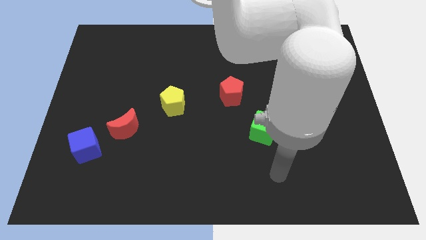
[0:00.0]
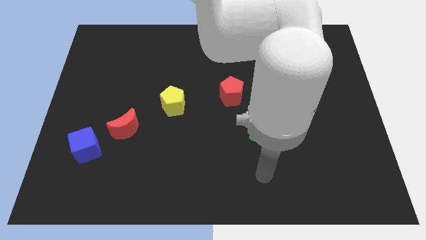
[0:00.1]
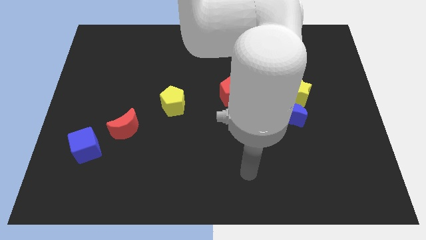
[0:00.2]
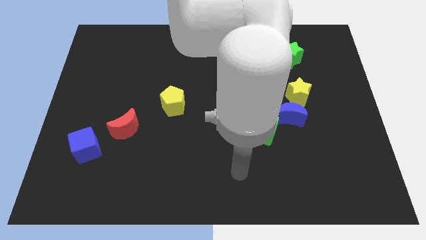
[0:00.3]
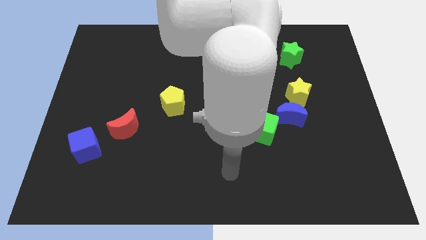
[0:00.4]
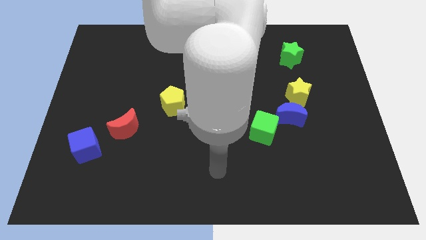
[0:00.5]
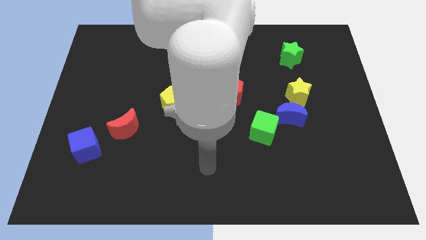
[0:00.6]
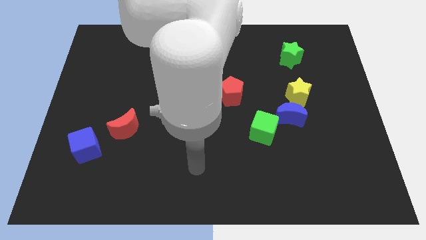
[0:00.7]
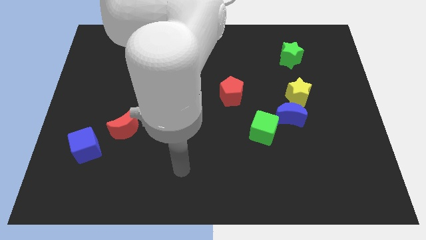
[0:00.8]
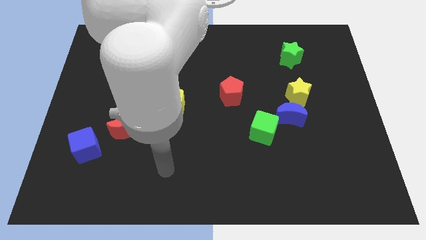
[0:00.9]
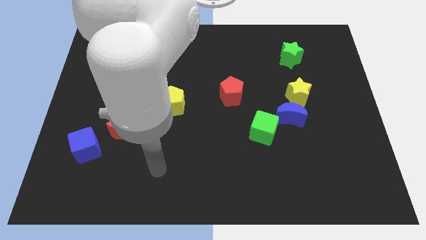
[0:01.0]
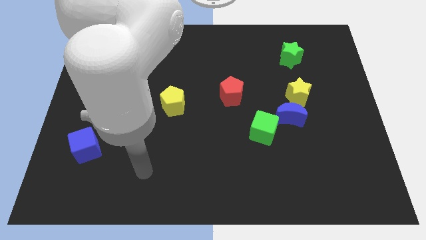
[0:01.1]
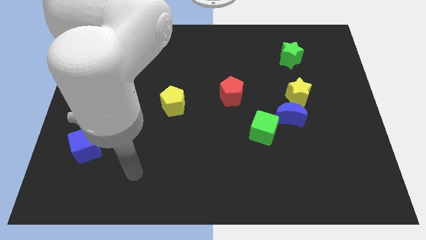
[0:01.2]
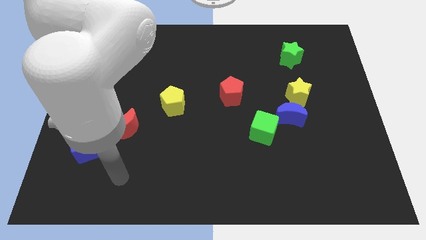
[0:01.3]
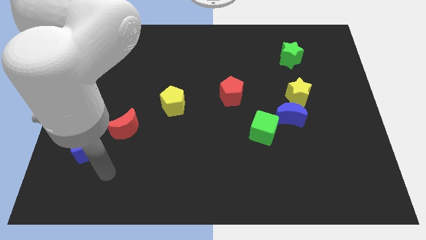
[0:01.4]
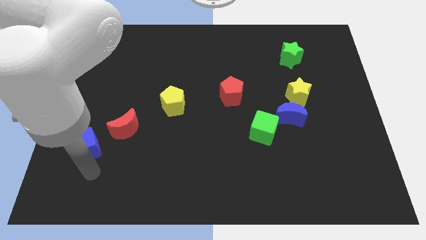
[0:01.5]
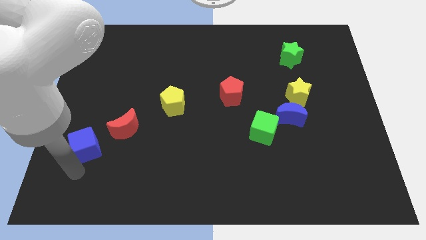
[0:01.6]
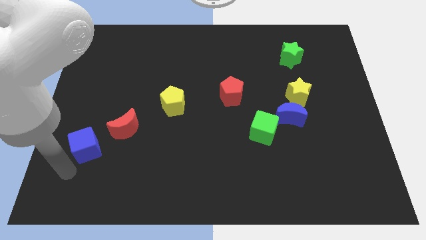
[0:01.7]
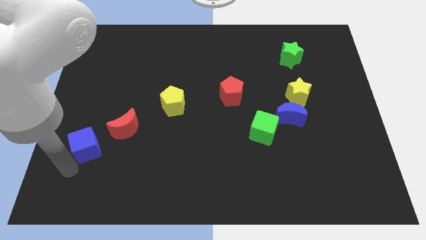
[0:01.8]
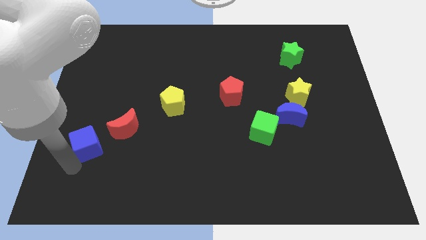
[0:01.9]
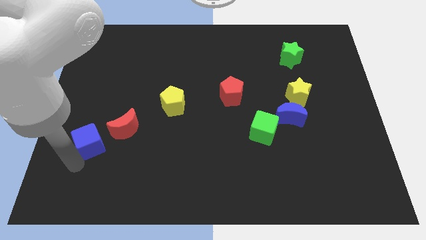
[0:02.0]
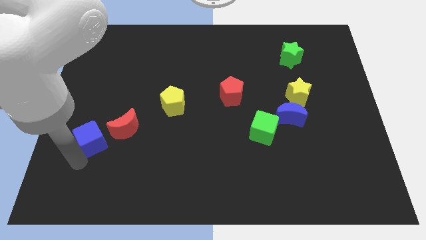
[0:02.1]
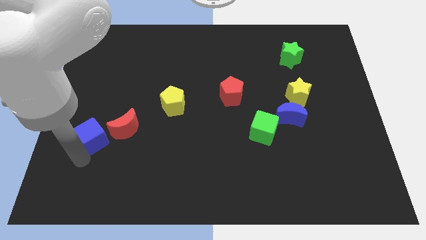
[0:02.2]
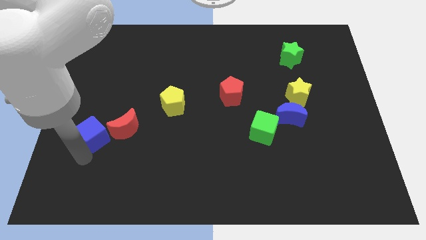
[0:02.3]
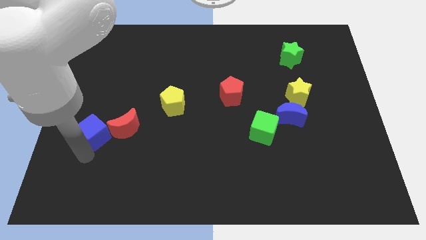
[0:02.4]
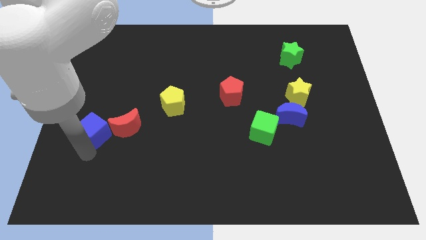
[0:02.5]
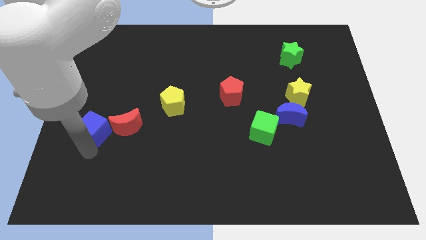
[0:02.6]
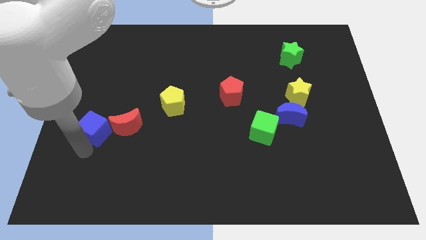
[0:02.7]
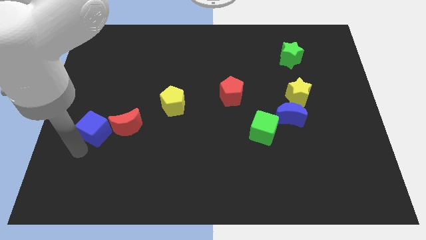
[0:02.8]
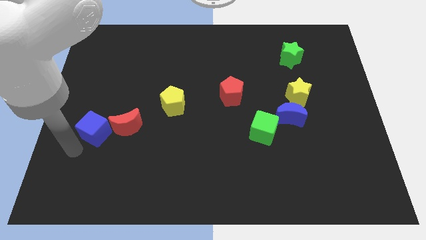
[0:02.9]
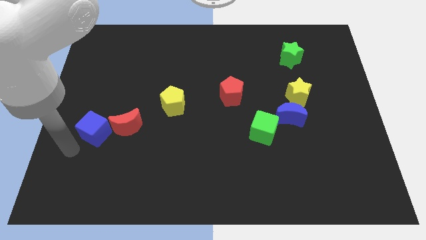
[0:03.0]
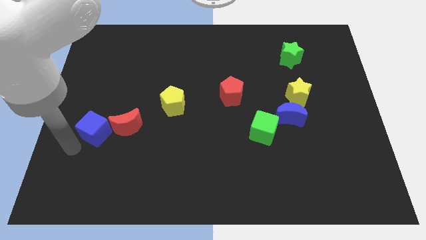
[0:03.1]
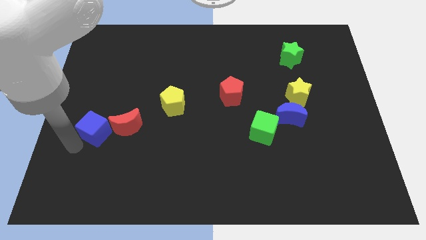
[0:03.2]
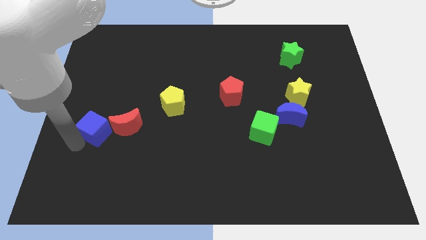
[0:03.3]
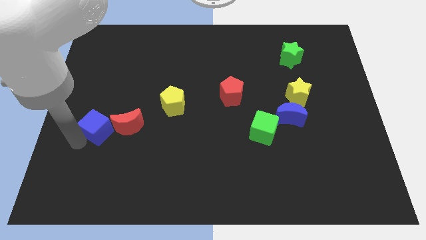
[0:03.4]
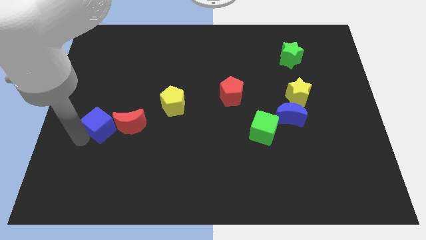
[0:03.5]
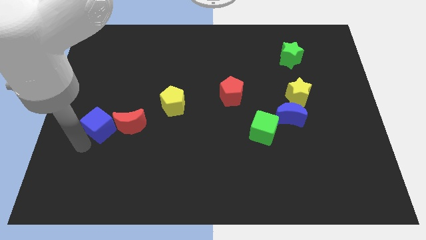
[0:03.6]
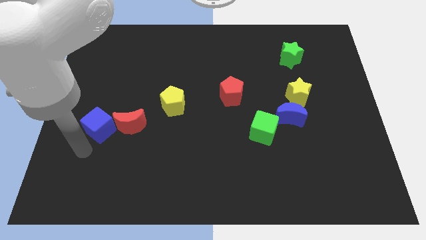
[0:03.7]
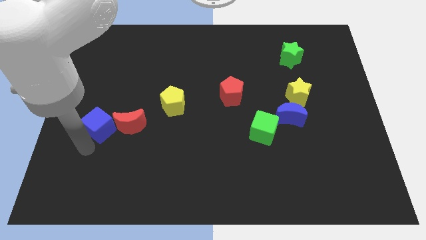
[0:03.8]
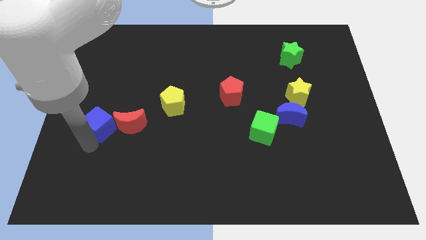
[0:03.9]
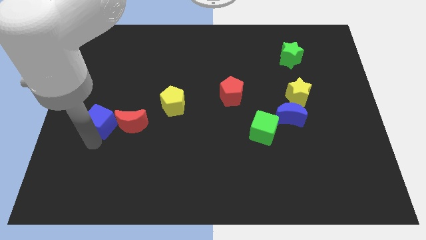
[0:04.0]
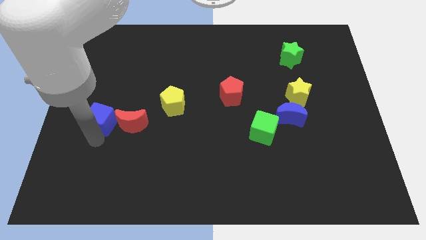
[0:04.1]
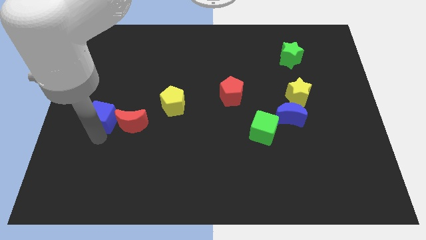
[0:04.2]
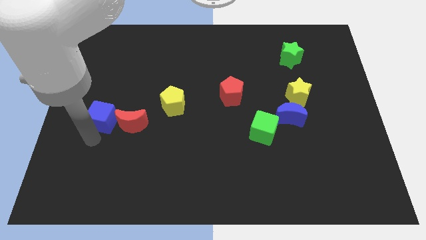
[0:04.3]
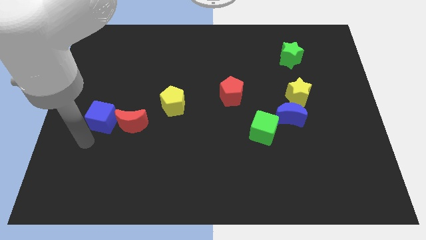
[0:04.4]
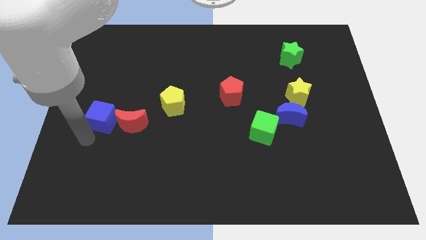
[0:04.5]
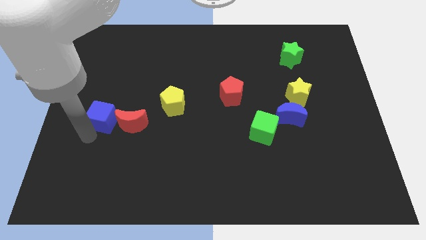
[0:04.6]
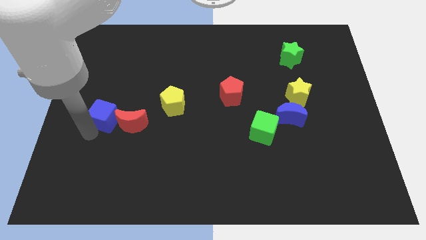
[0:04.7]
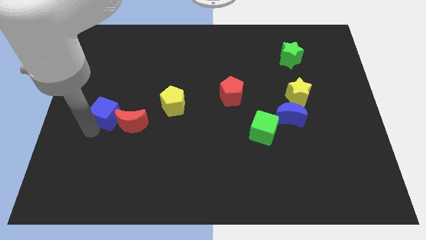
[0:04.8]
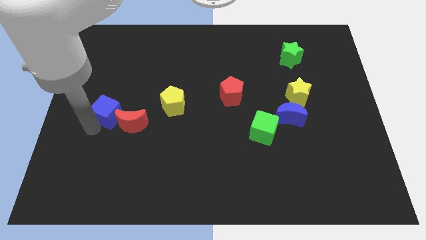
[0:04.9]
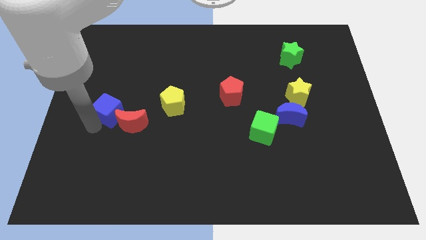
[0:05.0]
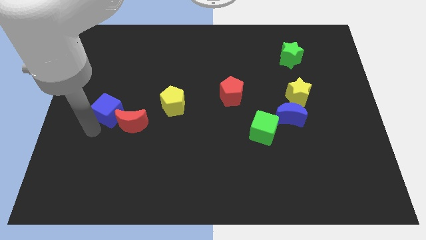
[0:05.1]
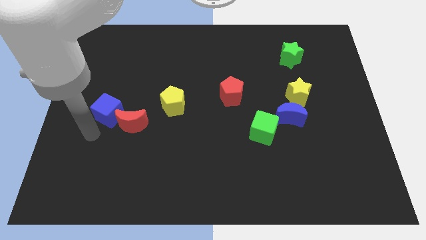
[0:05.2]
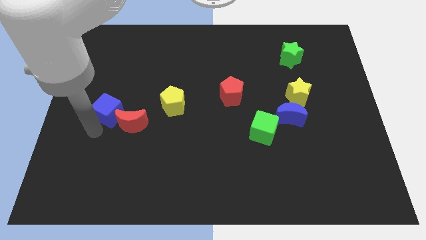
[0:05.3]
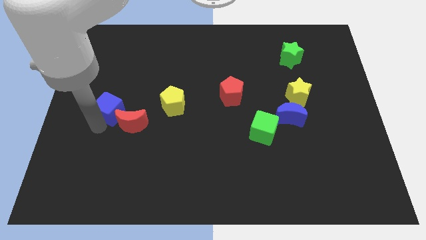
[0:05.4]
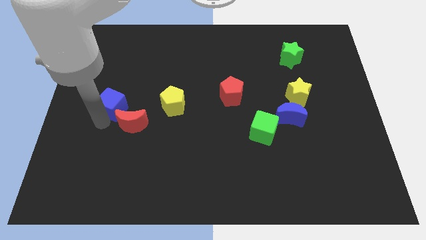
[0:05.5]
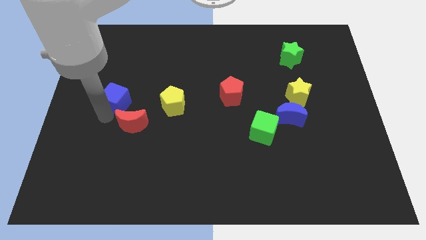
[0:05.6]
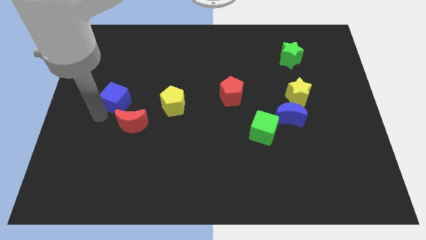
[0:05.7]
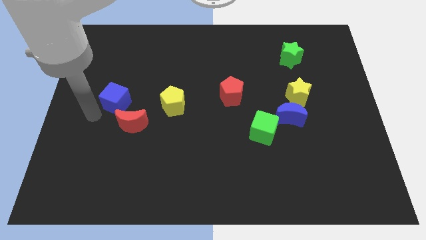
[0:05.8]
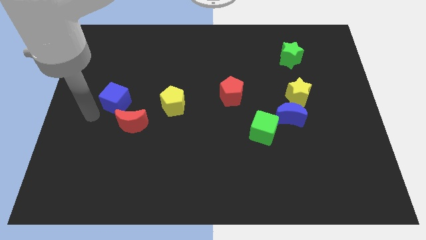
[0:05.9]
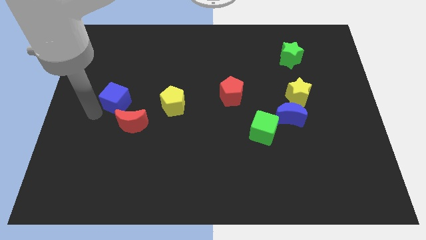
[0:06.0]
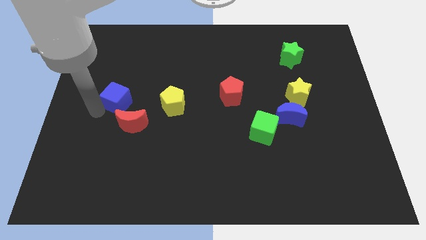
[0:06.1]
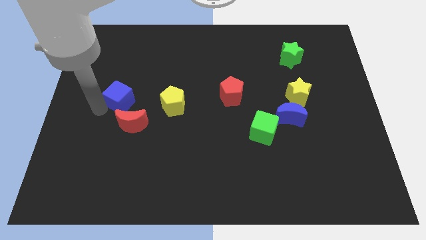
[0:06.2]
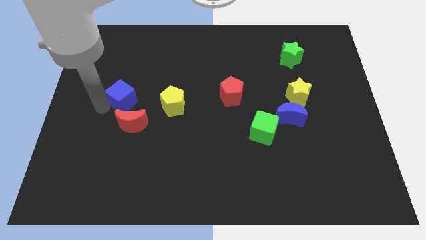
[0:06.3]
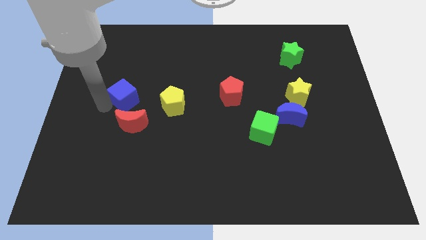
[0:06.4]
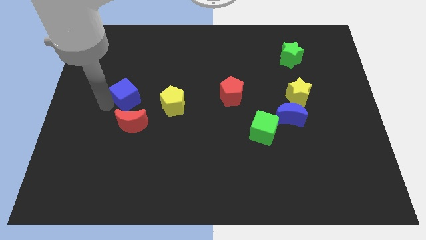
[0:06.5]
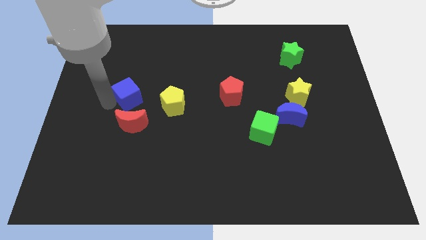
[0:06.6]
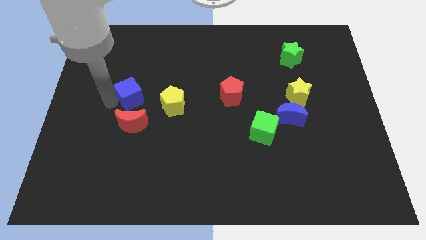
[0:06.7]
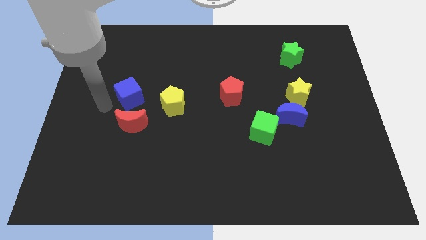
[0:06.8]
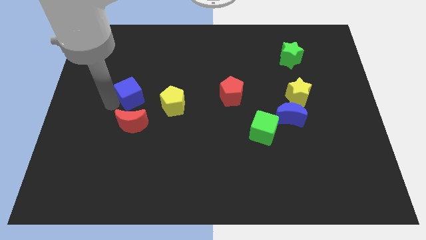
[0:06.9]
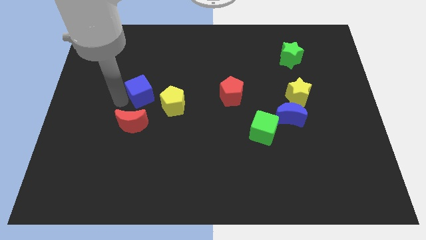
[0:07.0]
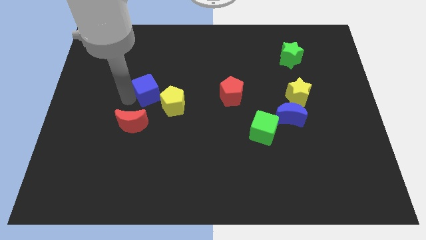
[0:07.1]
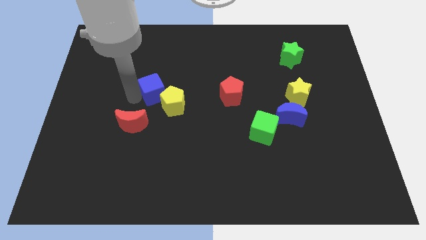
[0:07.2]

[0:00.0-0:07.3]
slide the blue cube up and then to the right

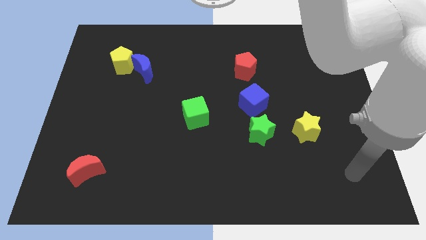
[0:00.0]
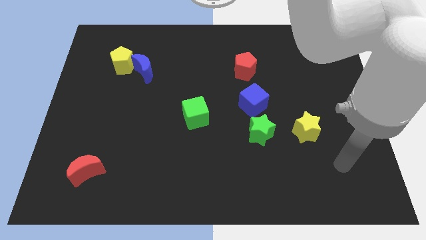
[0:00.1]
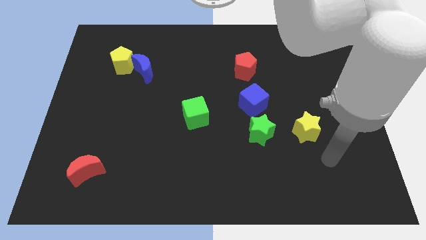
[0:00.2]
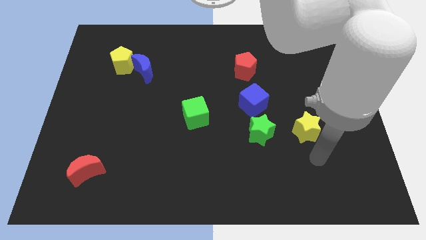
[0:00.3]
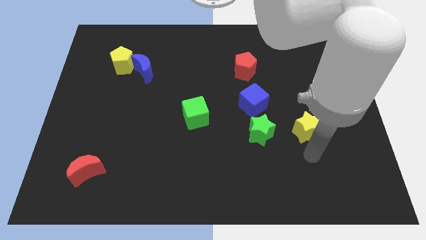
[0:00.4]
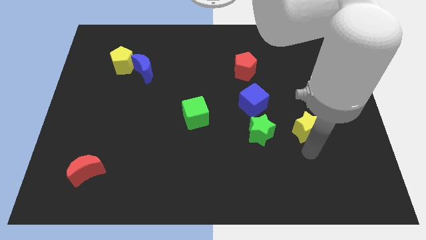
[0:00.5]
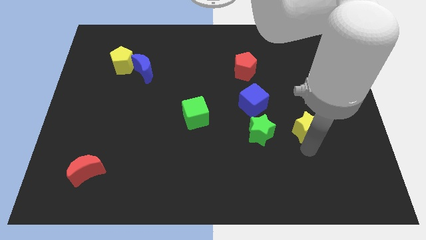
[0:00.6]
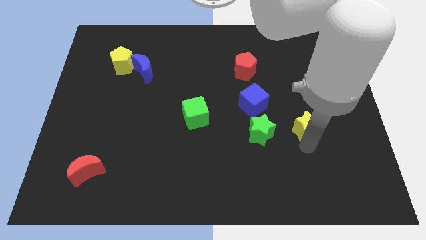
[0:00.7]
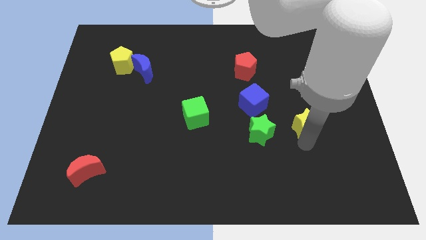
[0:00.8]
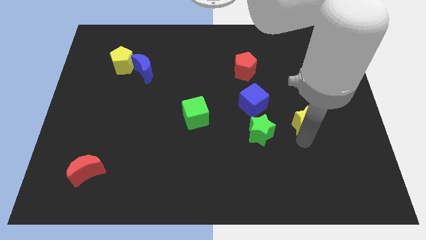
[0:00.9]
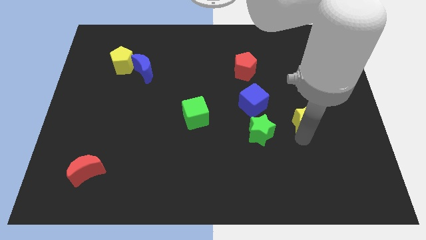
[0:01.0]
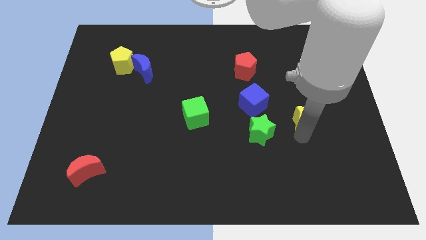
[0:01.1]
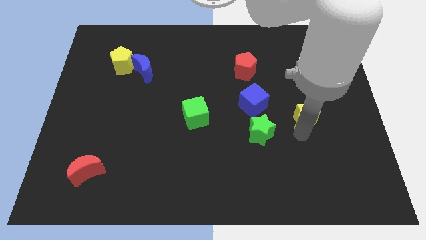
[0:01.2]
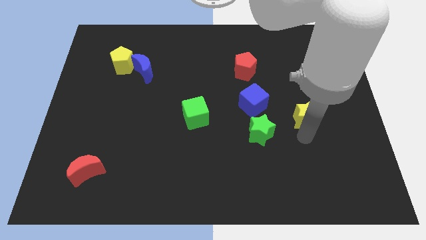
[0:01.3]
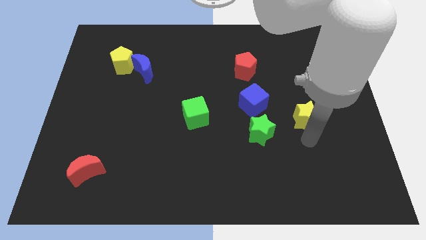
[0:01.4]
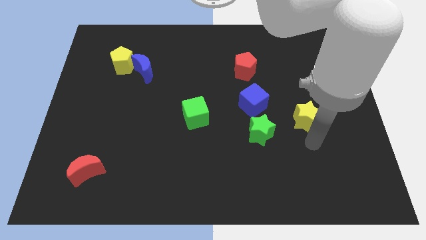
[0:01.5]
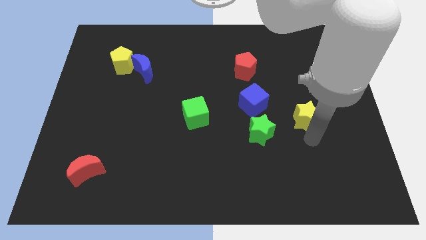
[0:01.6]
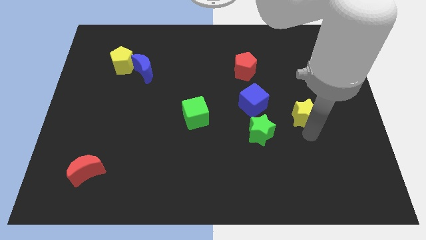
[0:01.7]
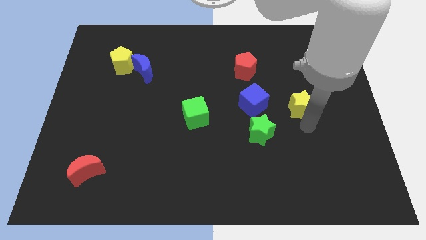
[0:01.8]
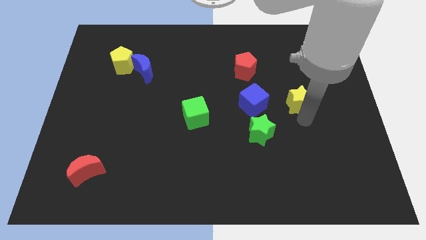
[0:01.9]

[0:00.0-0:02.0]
slightly slide the yellow star upwards
